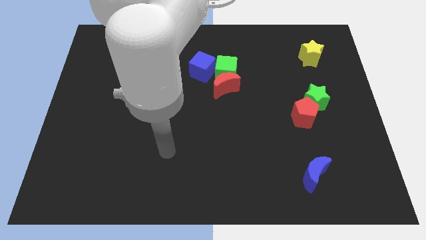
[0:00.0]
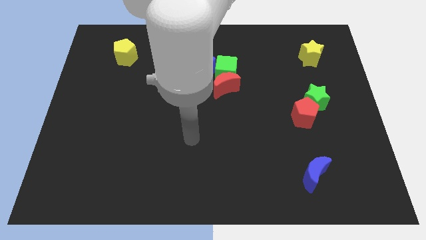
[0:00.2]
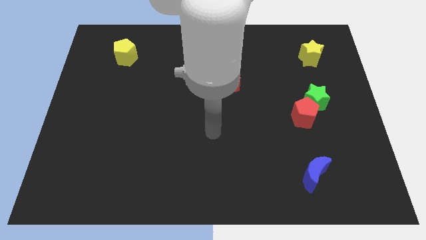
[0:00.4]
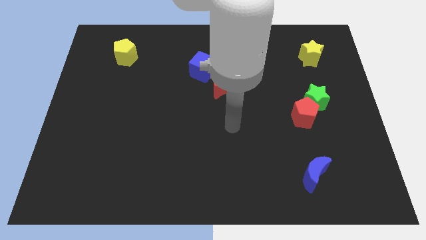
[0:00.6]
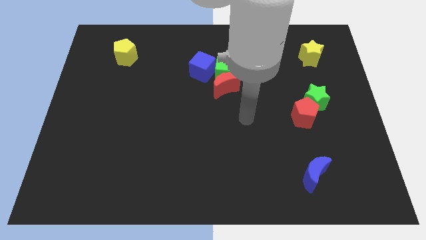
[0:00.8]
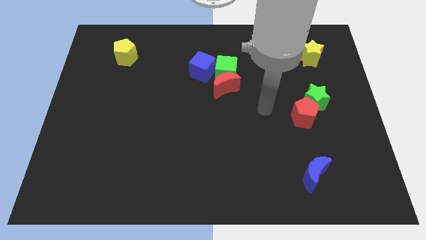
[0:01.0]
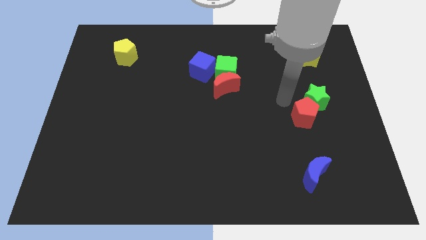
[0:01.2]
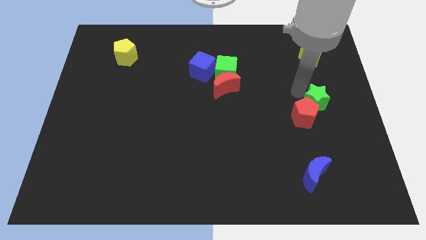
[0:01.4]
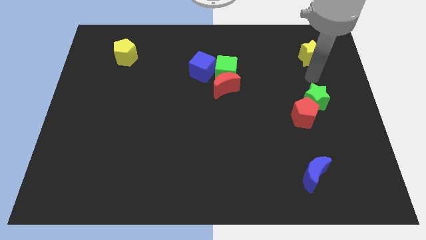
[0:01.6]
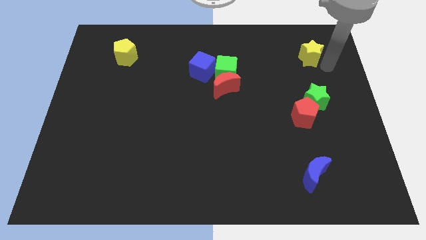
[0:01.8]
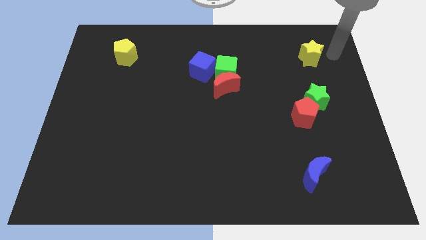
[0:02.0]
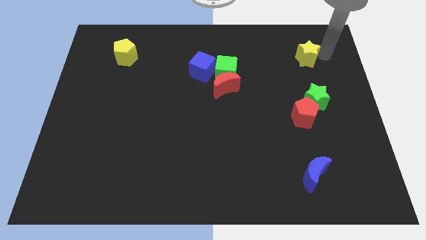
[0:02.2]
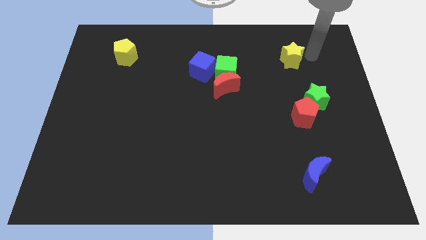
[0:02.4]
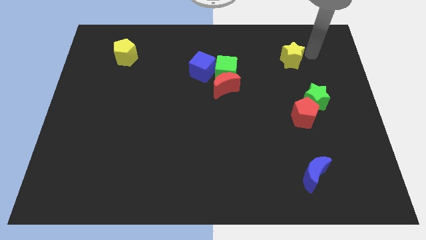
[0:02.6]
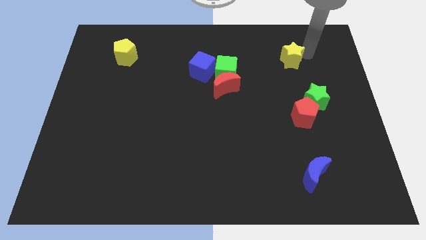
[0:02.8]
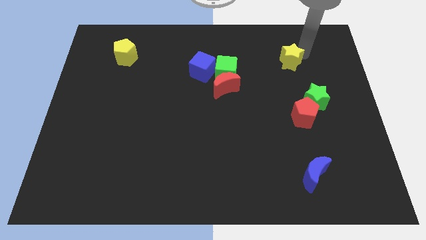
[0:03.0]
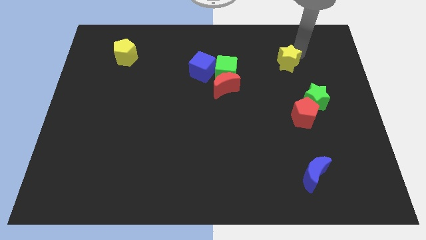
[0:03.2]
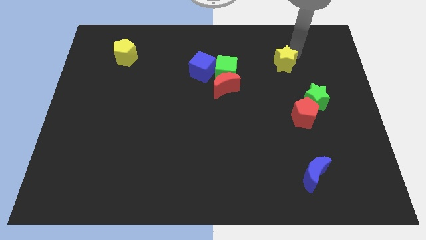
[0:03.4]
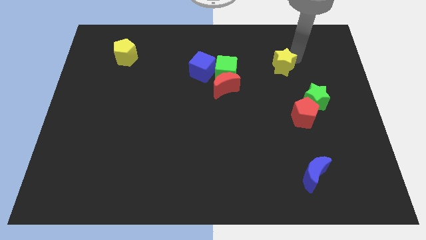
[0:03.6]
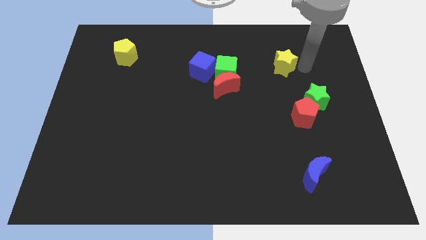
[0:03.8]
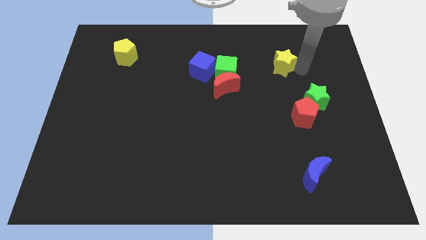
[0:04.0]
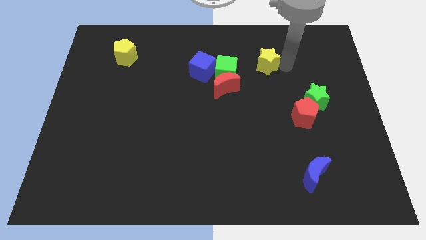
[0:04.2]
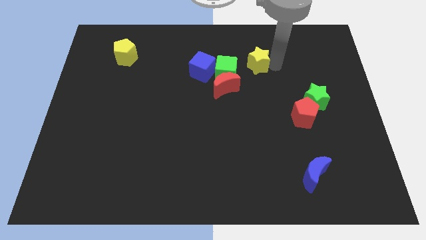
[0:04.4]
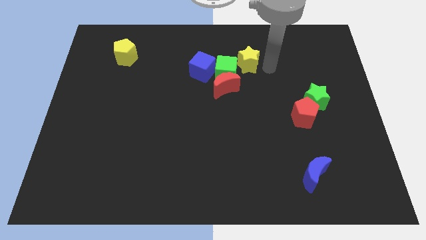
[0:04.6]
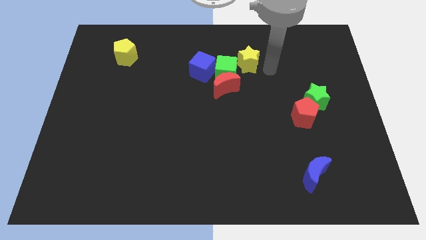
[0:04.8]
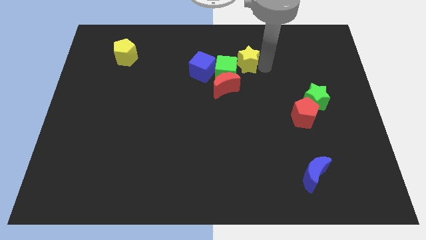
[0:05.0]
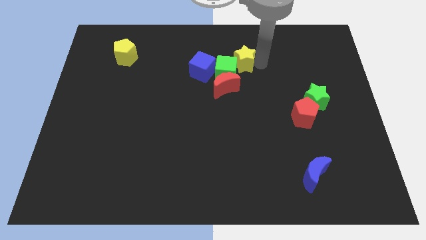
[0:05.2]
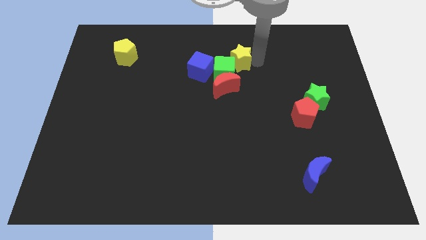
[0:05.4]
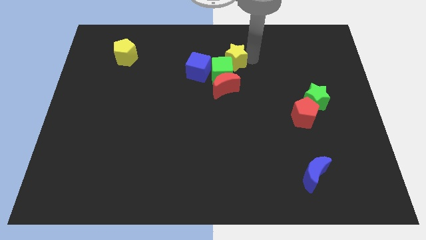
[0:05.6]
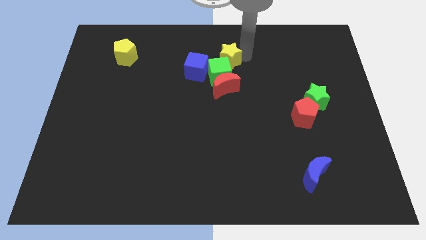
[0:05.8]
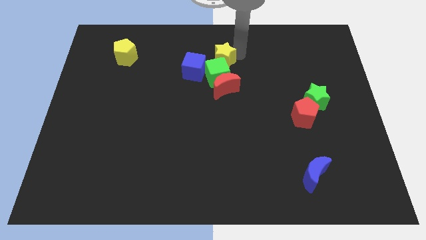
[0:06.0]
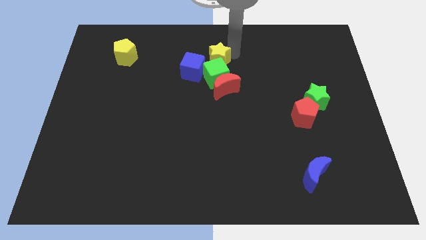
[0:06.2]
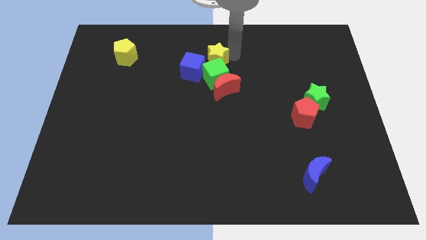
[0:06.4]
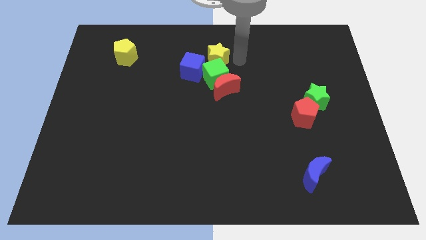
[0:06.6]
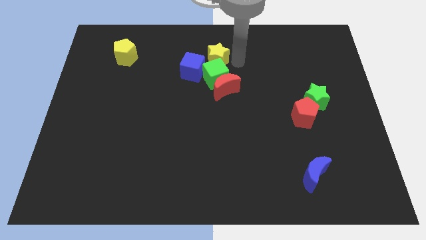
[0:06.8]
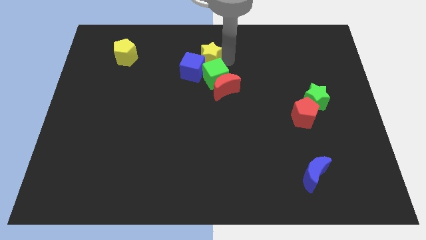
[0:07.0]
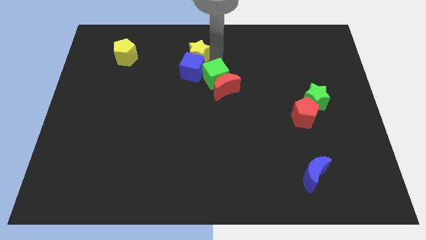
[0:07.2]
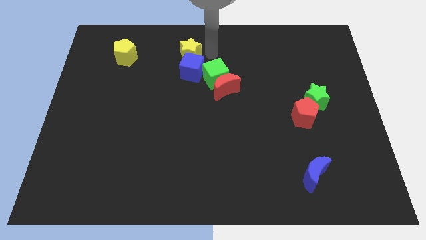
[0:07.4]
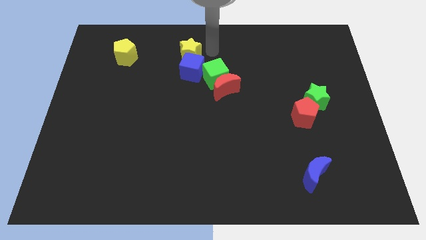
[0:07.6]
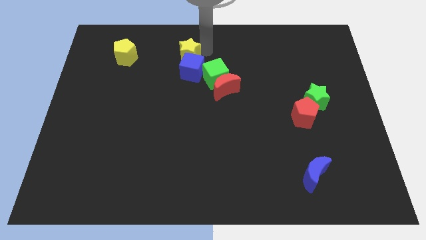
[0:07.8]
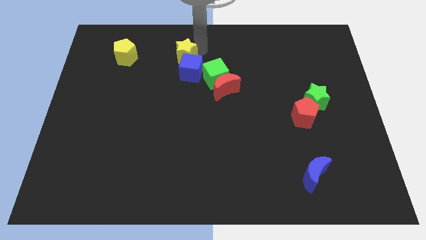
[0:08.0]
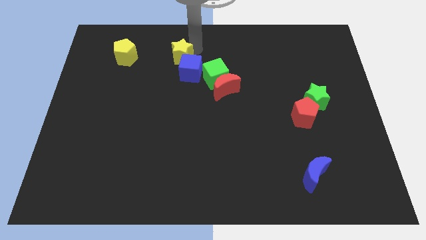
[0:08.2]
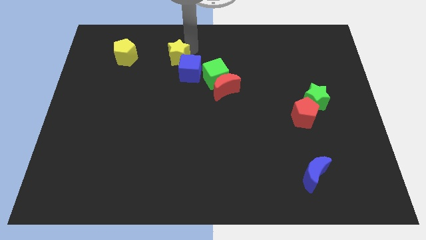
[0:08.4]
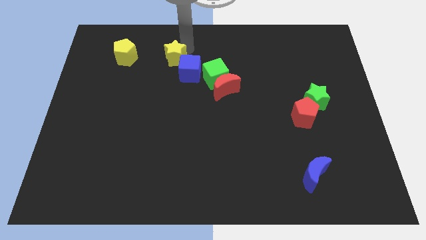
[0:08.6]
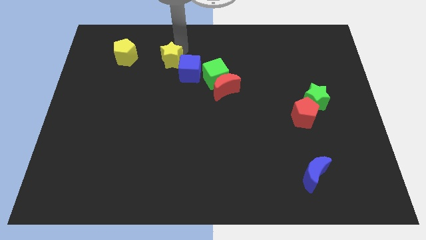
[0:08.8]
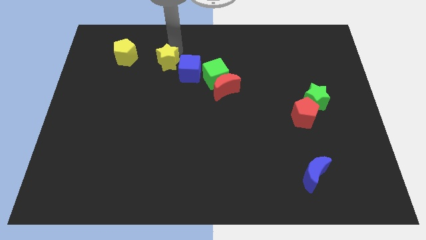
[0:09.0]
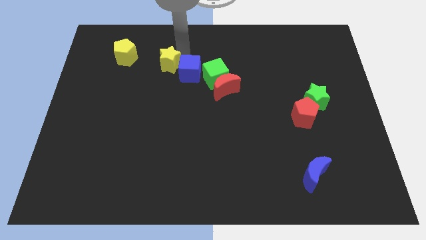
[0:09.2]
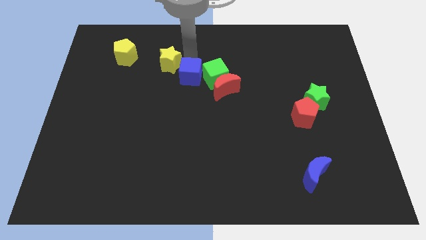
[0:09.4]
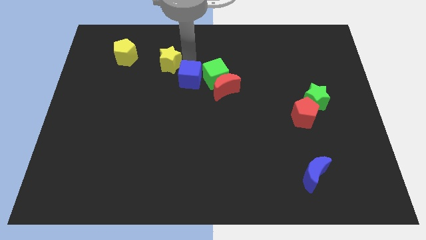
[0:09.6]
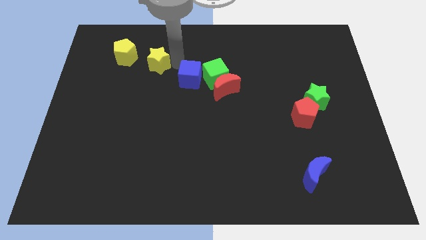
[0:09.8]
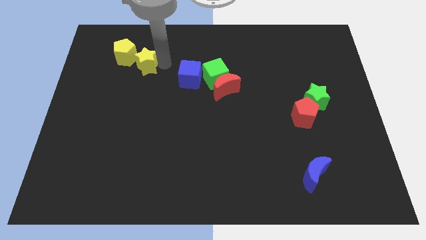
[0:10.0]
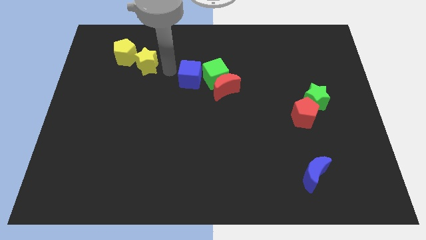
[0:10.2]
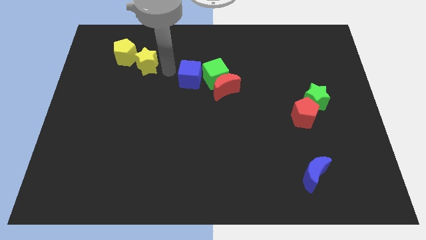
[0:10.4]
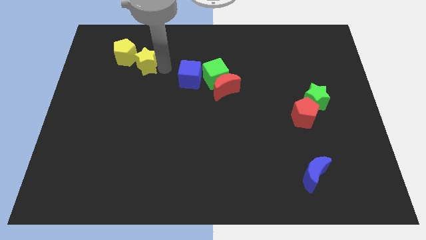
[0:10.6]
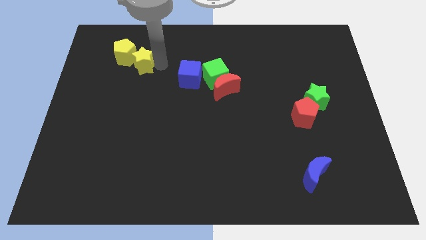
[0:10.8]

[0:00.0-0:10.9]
slide the yellow star to the yellow pentagon

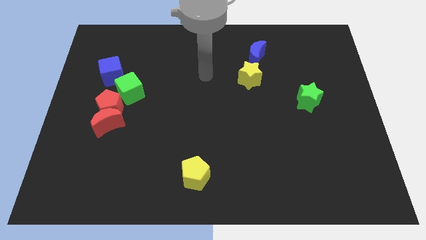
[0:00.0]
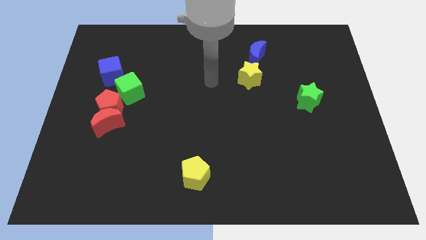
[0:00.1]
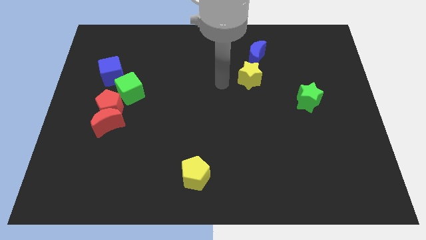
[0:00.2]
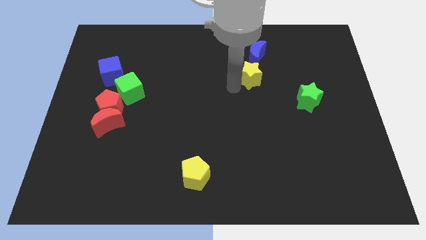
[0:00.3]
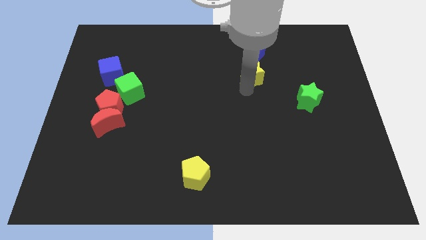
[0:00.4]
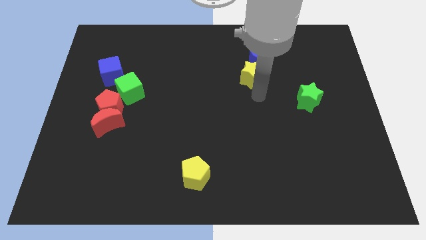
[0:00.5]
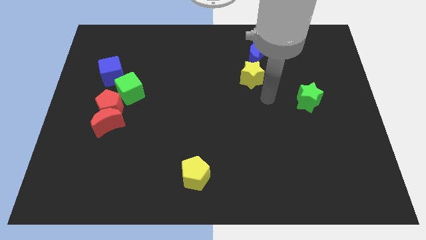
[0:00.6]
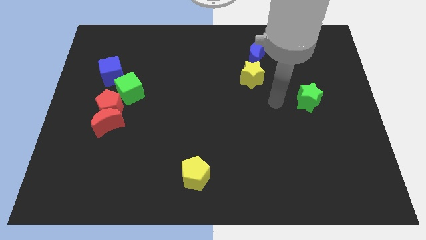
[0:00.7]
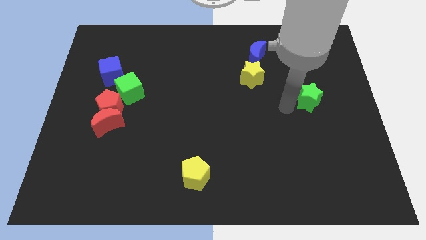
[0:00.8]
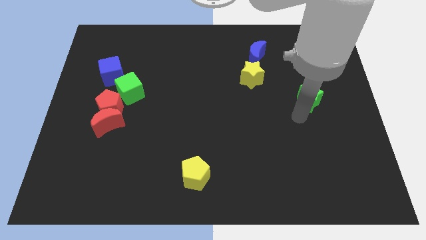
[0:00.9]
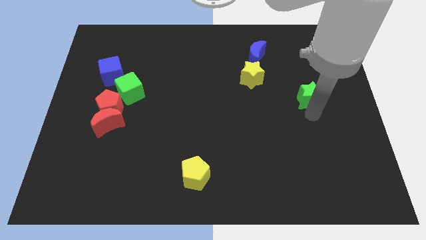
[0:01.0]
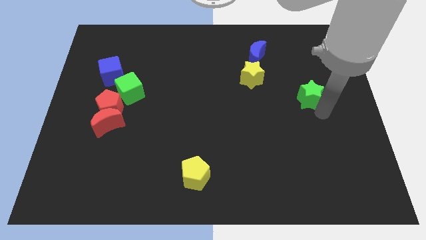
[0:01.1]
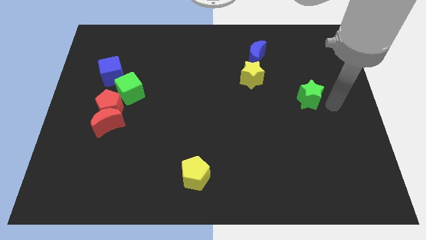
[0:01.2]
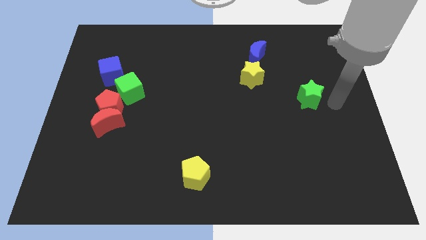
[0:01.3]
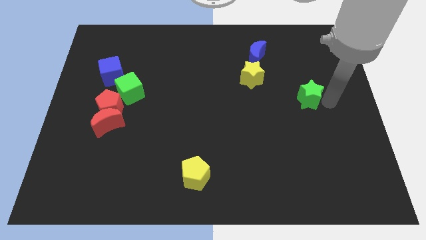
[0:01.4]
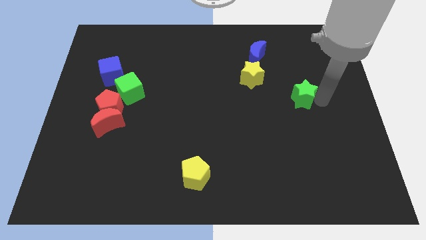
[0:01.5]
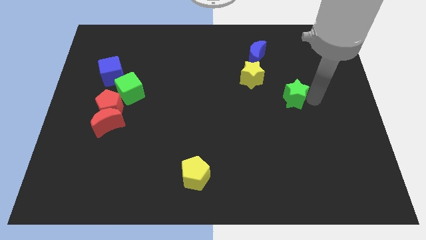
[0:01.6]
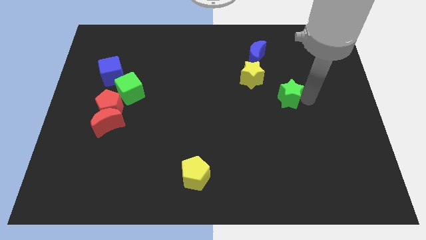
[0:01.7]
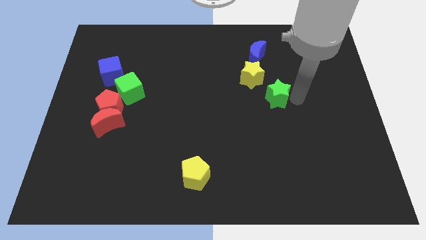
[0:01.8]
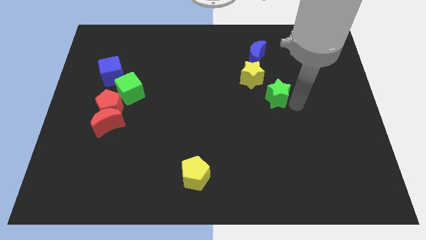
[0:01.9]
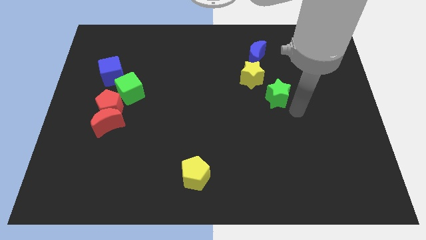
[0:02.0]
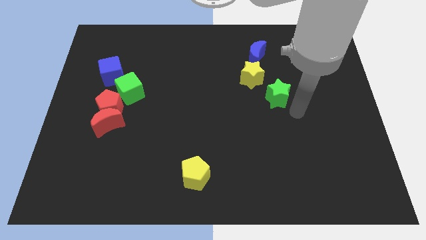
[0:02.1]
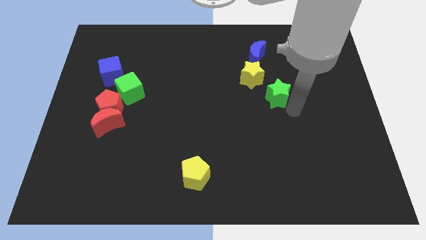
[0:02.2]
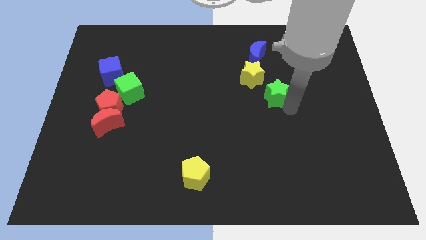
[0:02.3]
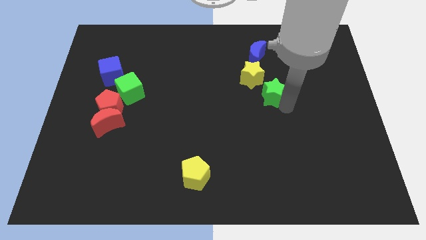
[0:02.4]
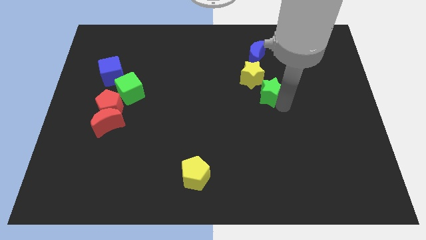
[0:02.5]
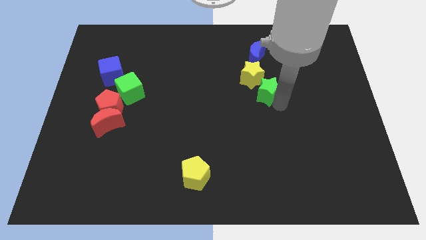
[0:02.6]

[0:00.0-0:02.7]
move the green star close to the yellow star
